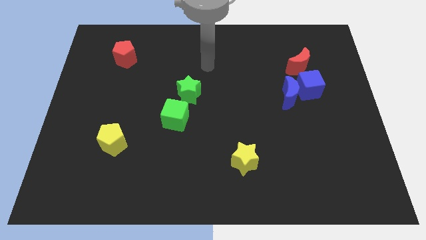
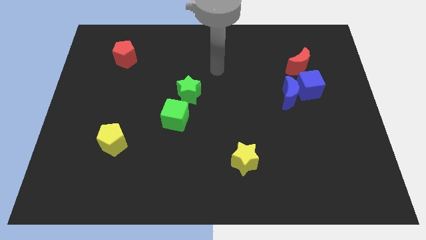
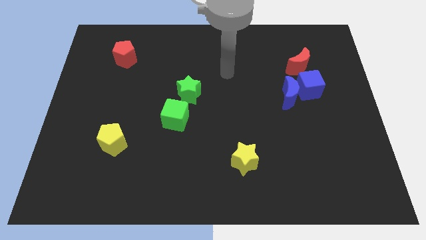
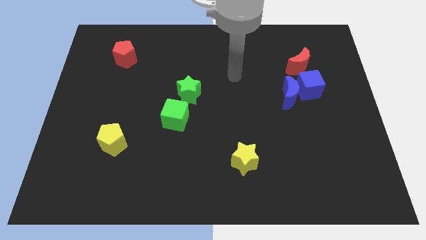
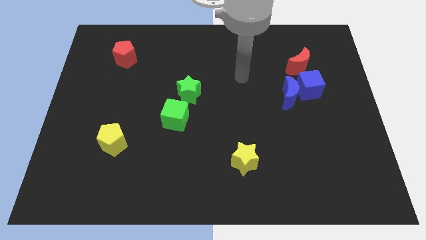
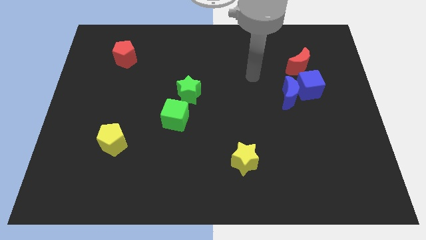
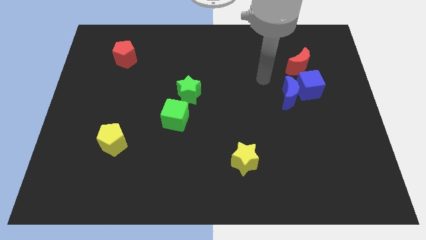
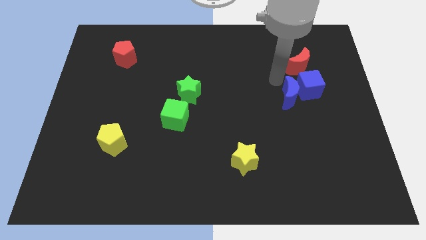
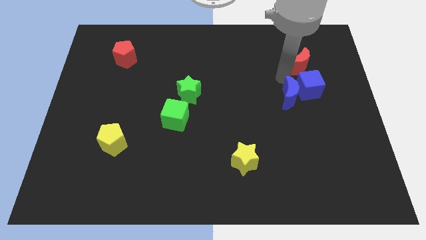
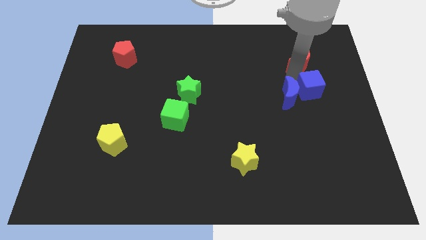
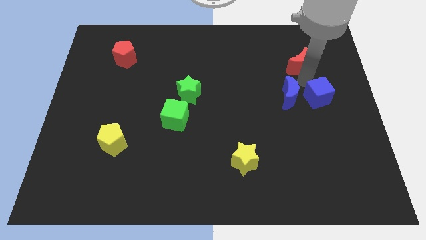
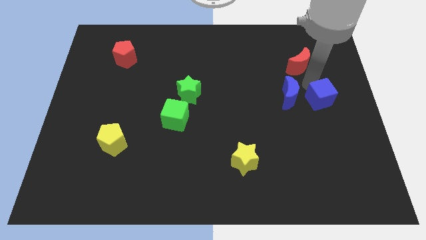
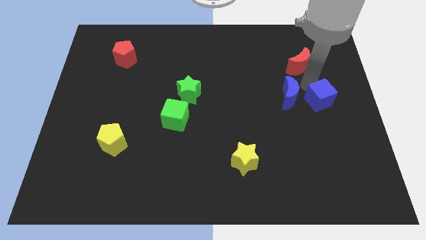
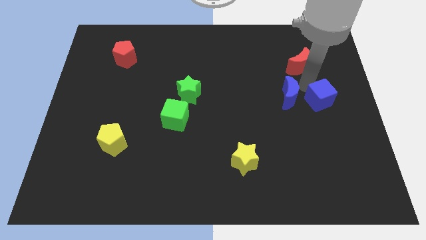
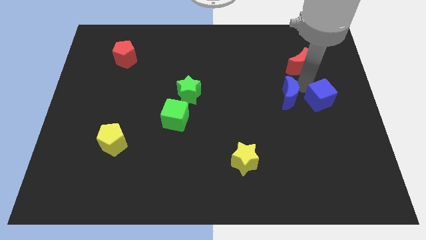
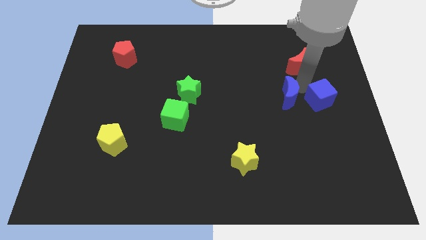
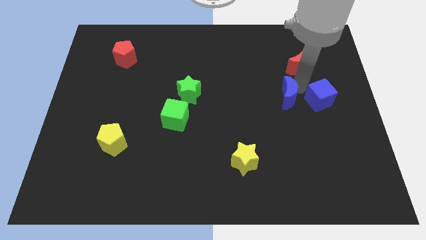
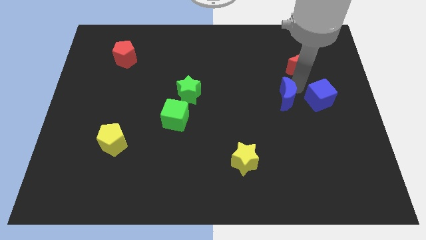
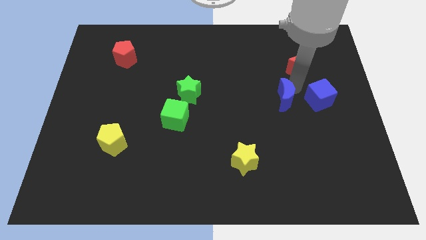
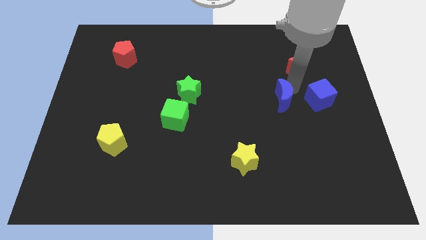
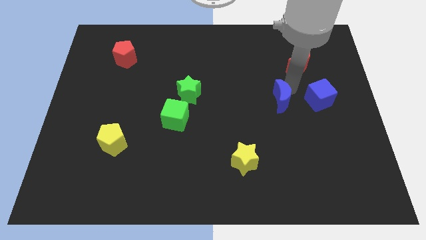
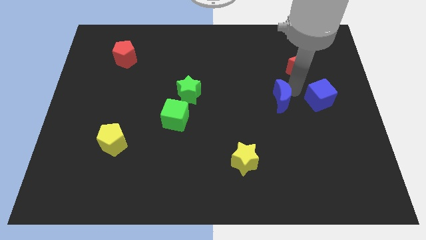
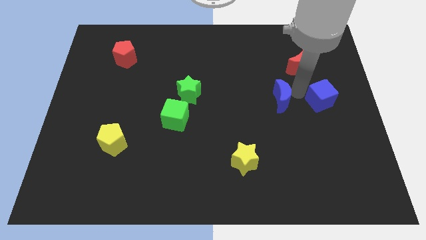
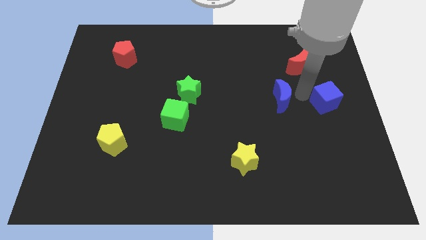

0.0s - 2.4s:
move the blue moon away from the blue cube

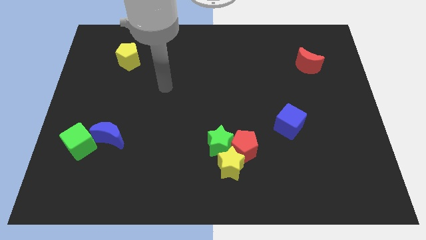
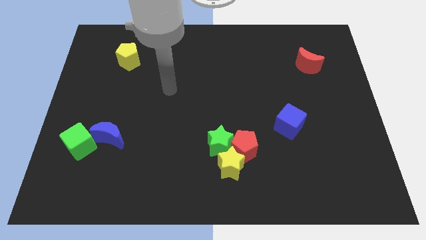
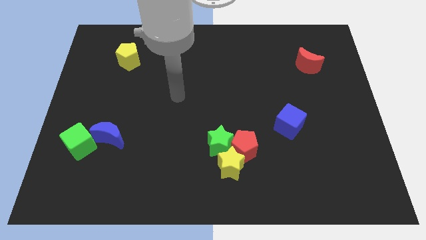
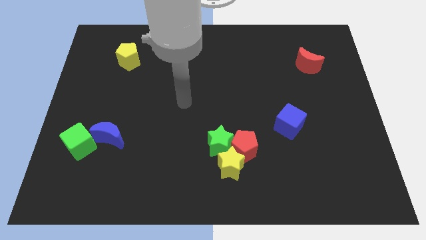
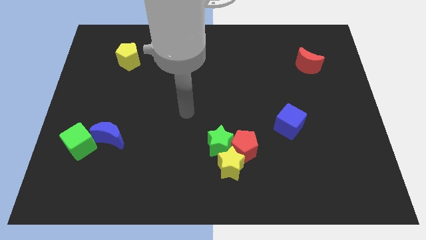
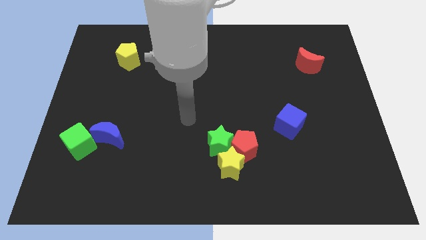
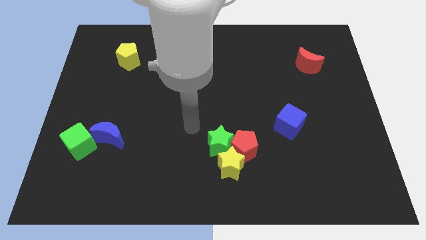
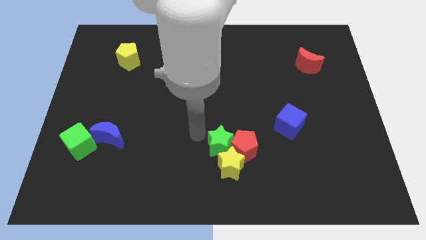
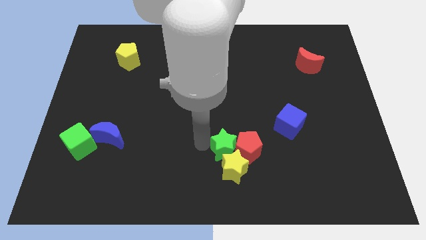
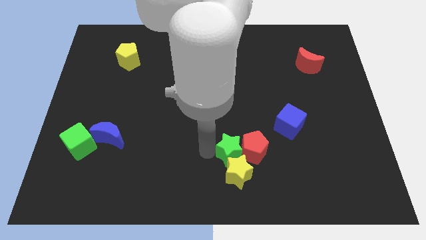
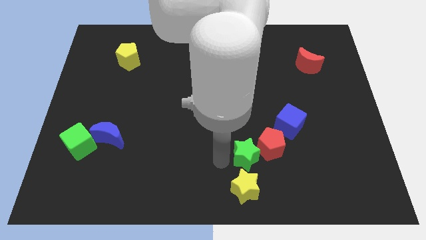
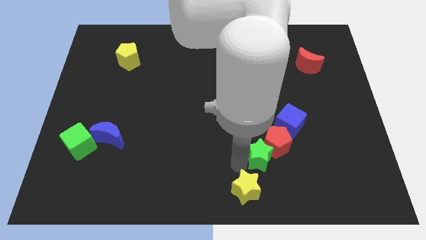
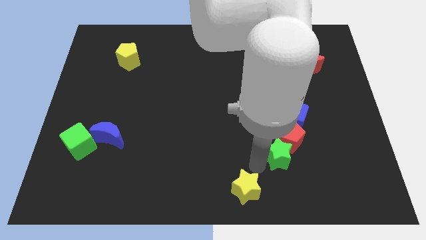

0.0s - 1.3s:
separate the red pentagon from the yellow star and green star

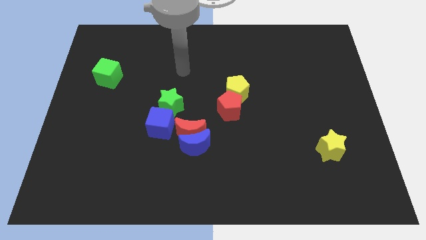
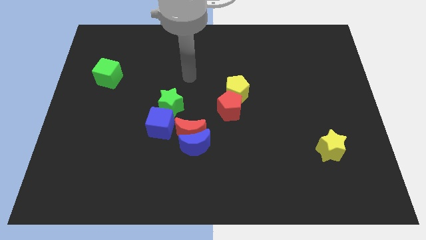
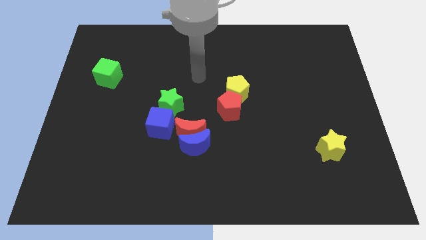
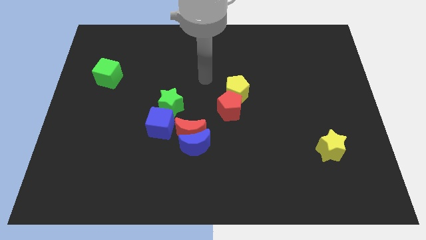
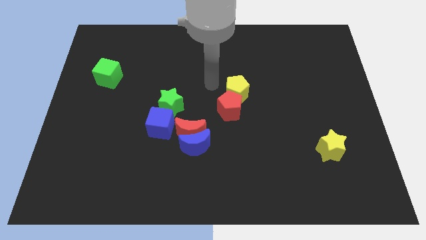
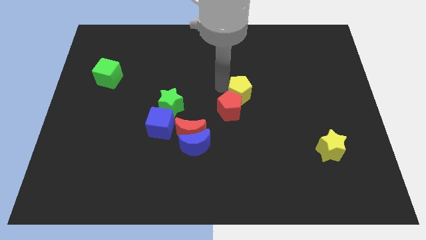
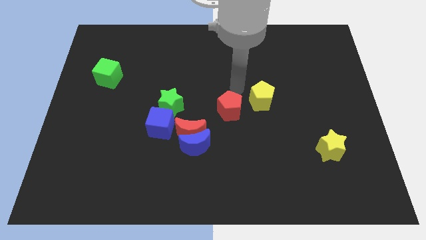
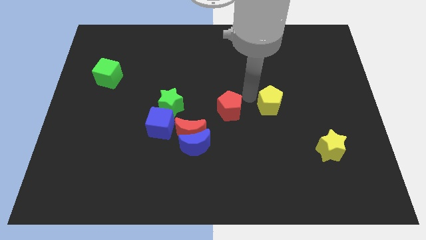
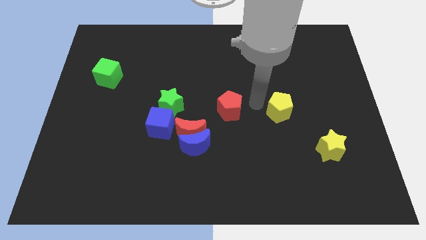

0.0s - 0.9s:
pull the red pentagon apart from the yellow pentagon

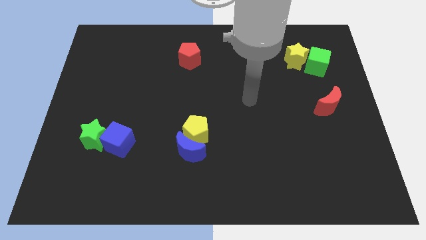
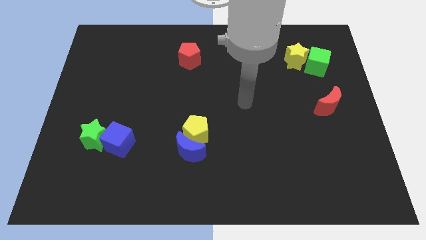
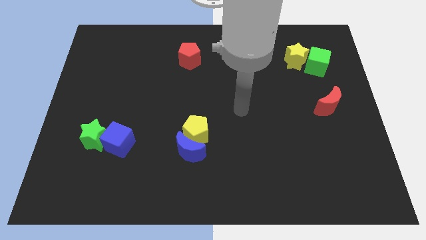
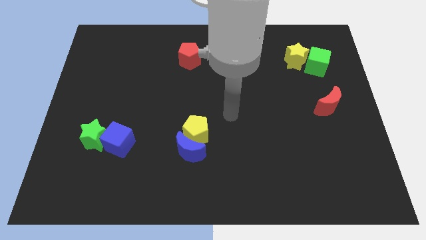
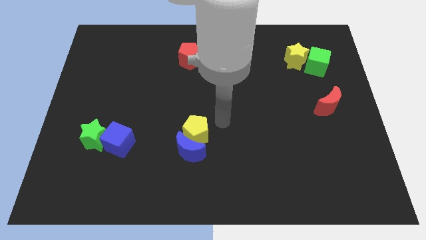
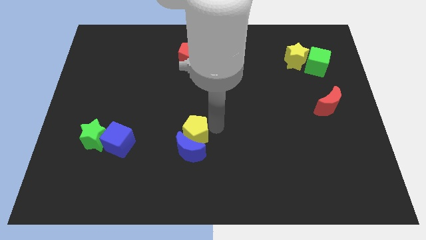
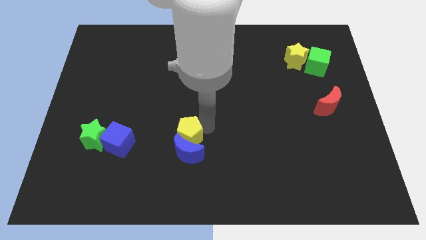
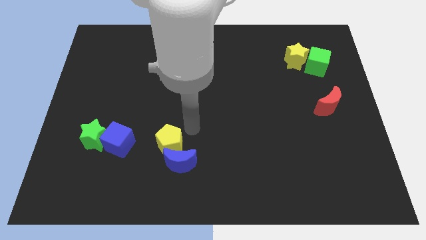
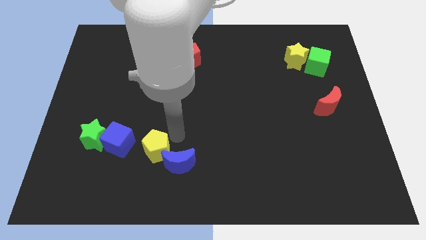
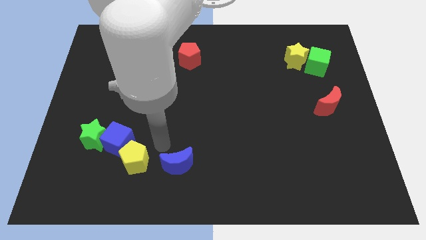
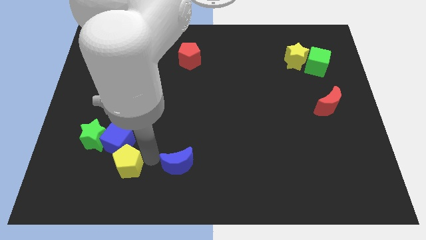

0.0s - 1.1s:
move the blue moon away from the yellow pentagon

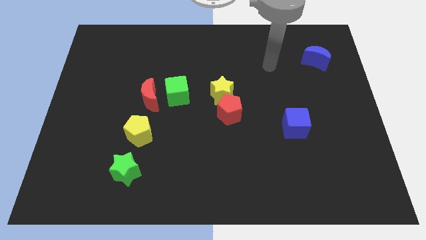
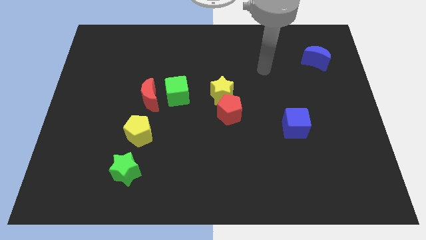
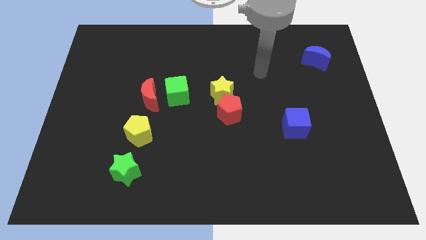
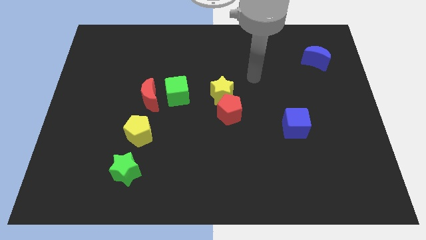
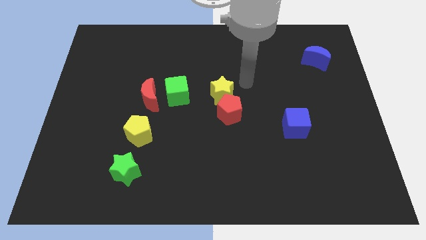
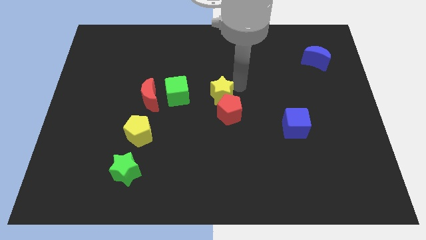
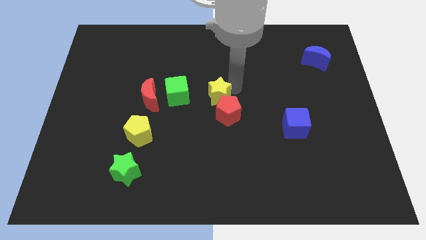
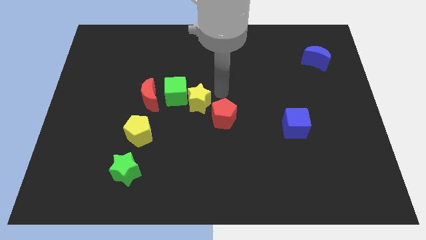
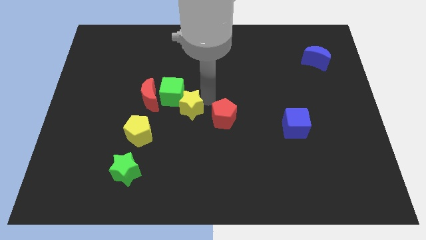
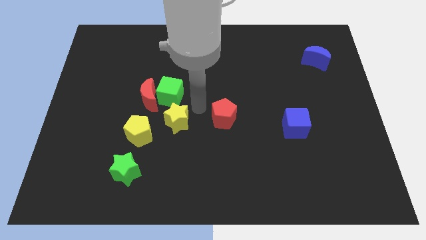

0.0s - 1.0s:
separate the red pentagon from the yellow star

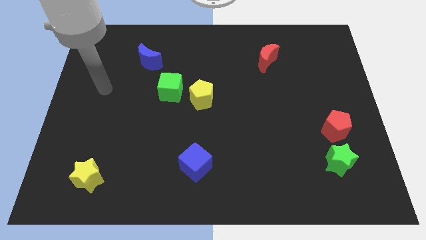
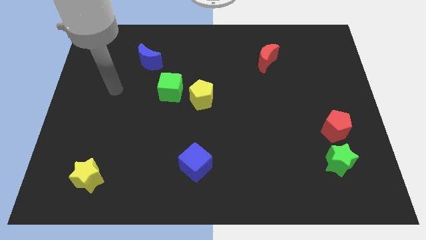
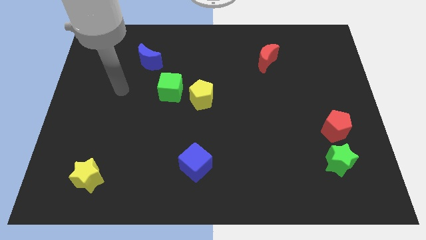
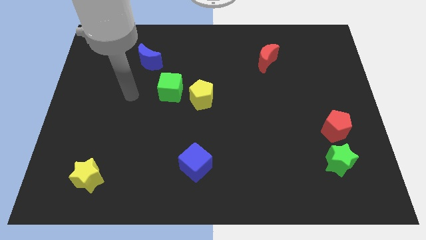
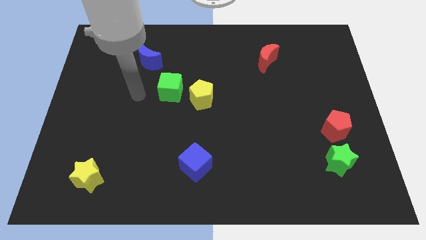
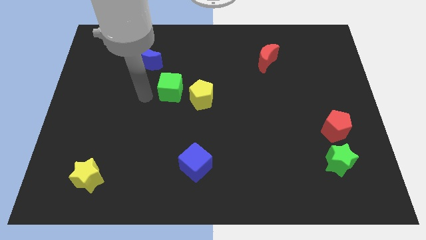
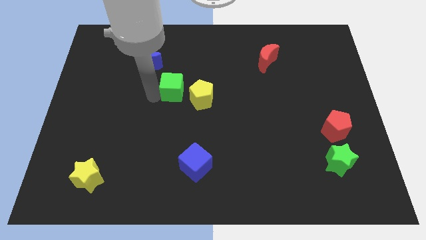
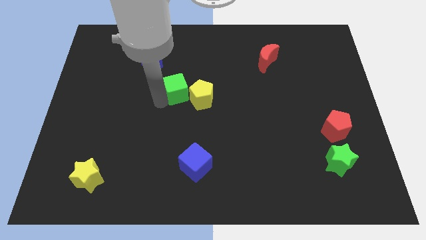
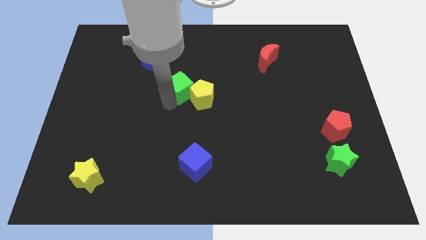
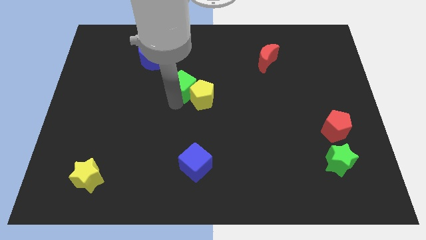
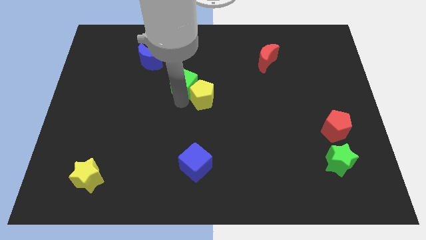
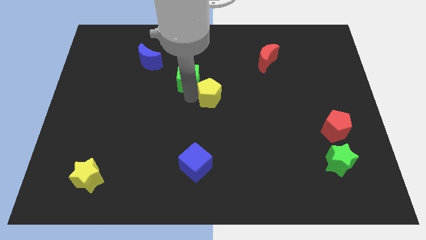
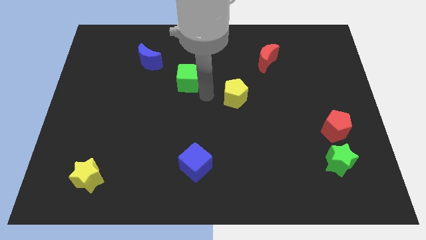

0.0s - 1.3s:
separate the green cube from the yellow pentagon

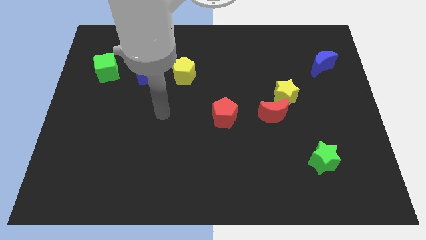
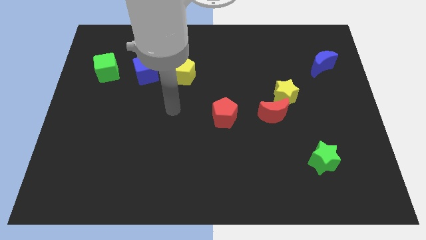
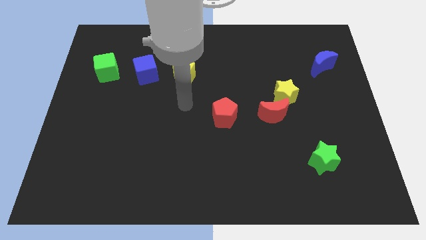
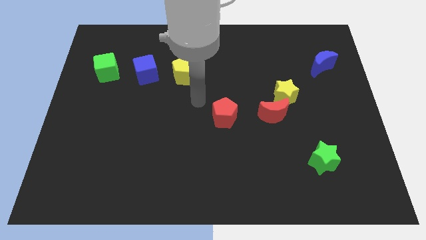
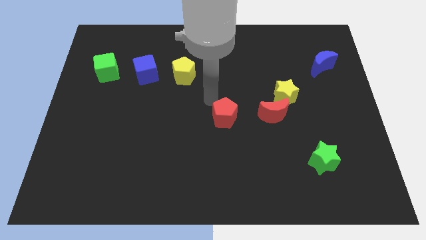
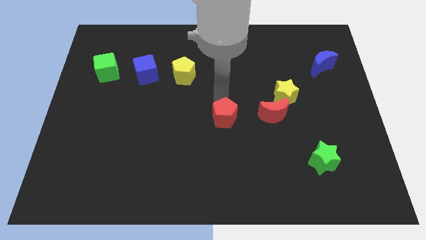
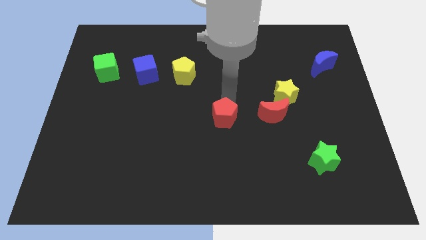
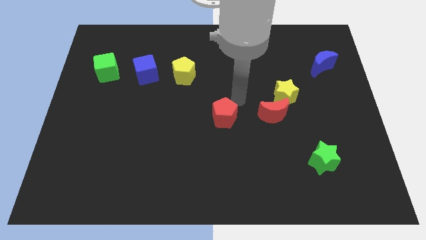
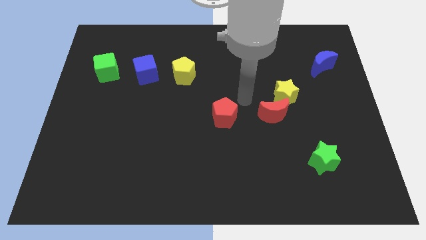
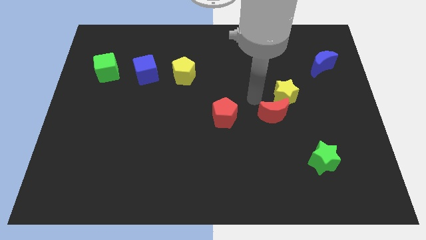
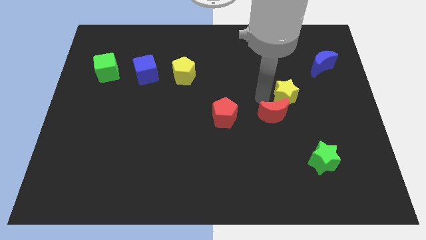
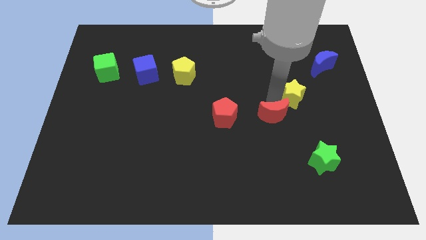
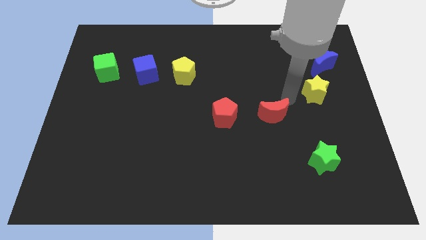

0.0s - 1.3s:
pull the red moon apart from the yellow star
